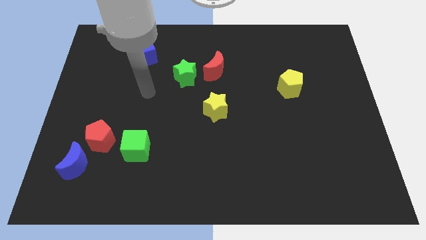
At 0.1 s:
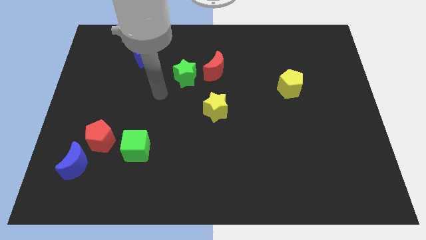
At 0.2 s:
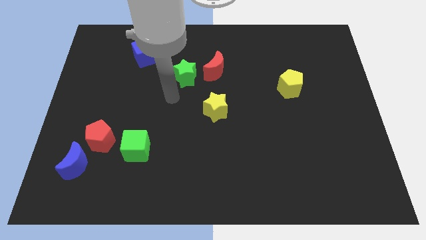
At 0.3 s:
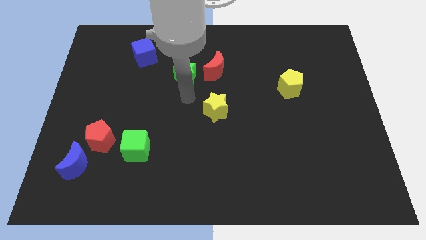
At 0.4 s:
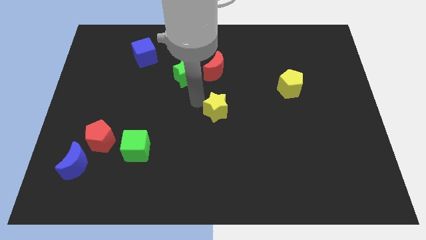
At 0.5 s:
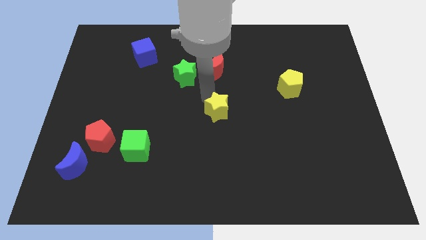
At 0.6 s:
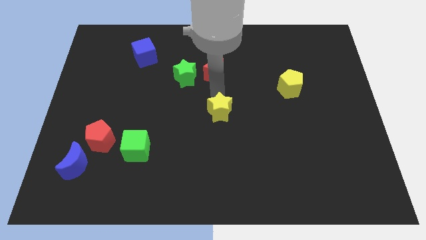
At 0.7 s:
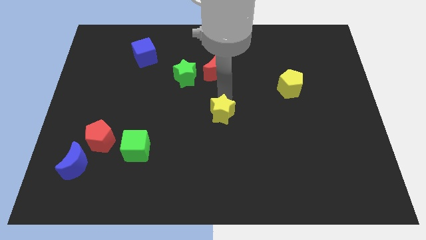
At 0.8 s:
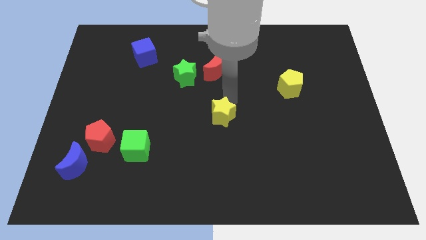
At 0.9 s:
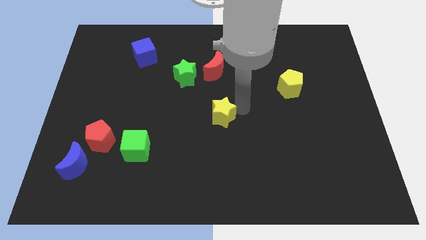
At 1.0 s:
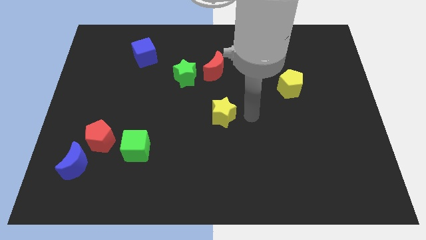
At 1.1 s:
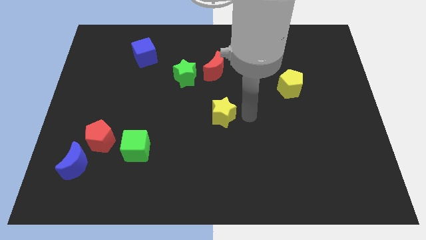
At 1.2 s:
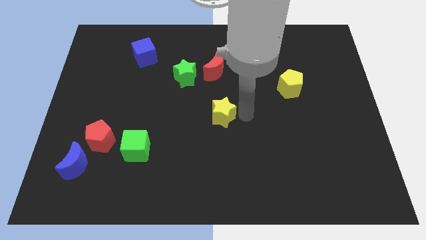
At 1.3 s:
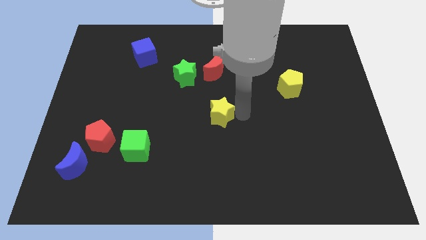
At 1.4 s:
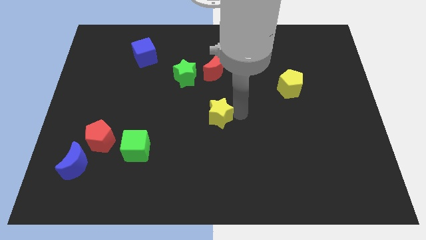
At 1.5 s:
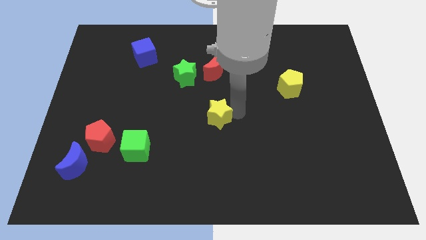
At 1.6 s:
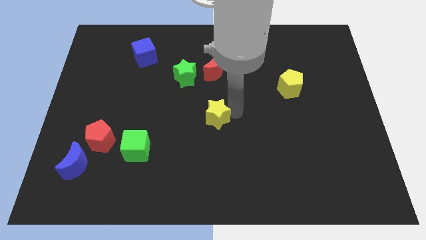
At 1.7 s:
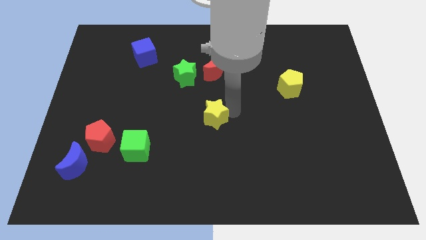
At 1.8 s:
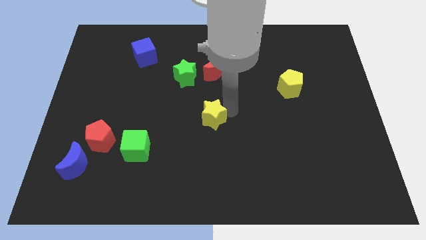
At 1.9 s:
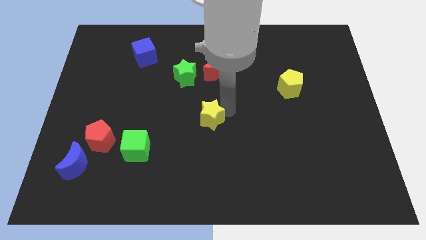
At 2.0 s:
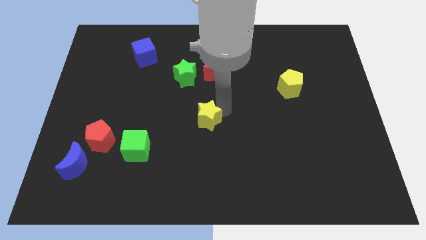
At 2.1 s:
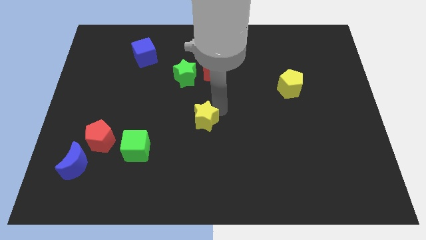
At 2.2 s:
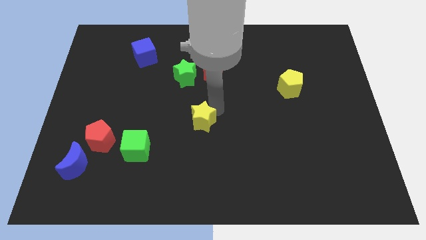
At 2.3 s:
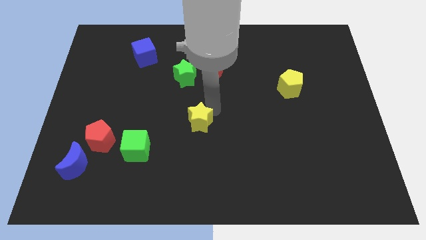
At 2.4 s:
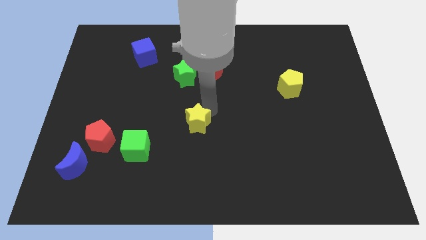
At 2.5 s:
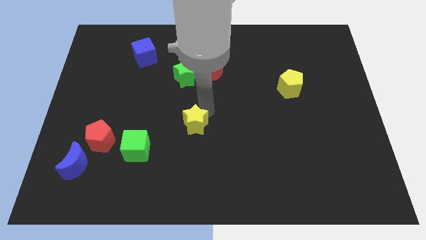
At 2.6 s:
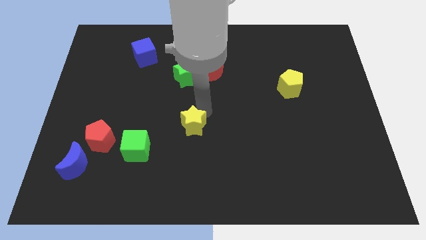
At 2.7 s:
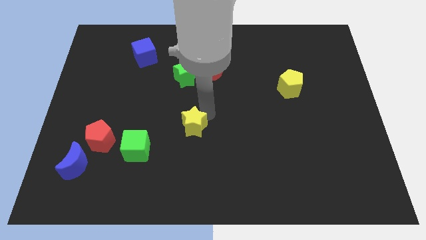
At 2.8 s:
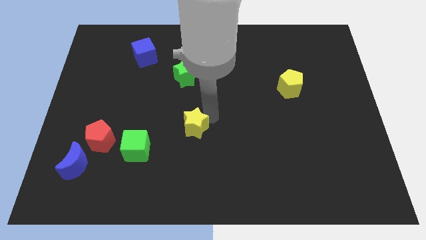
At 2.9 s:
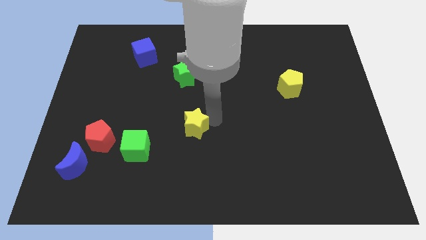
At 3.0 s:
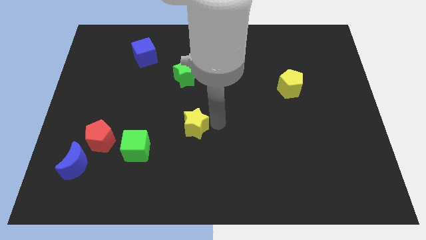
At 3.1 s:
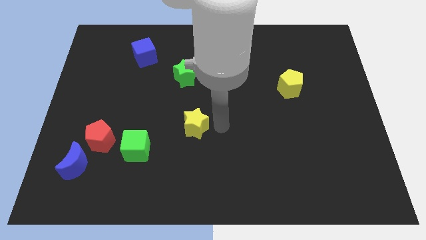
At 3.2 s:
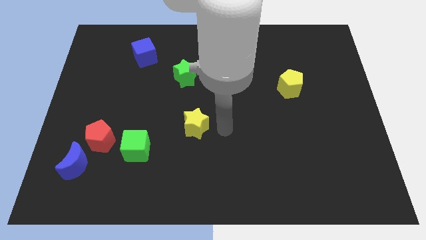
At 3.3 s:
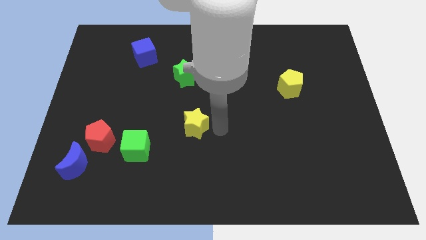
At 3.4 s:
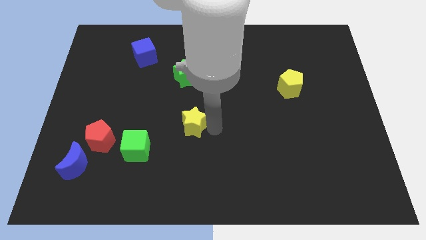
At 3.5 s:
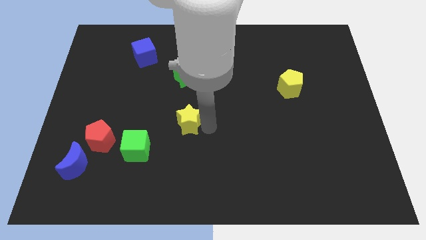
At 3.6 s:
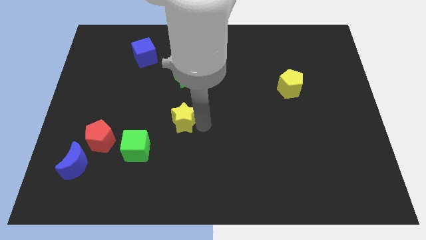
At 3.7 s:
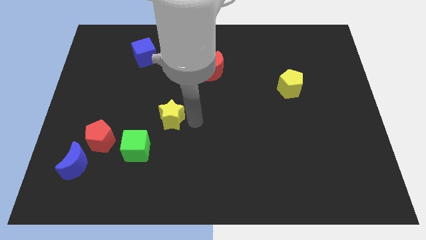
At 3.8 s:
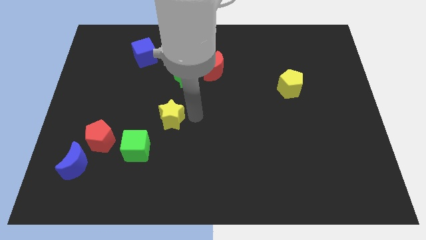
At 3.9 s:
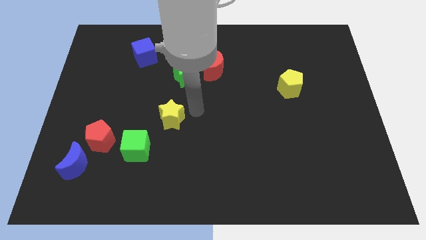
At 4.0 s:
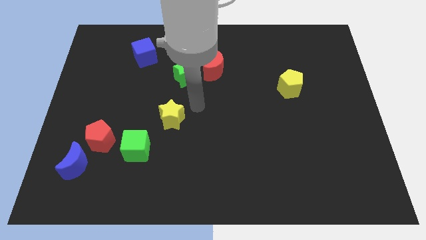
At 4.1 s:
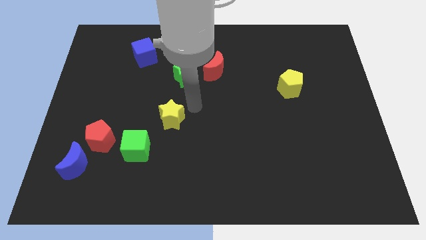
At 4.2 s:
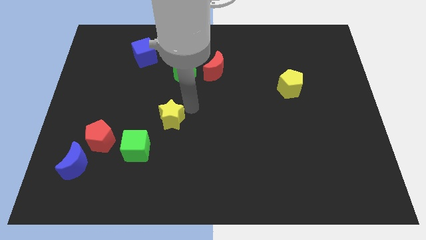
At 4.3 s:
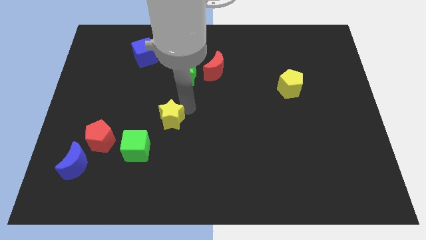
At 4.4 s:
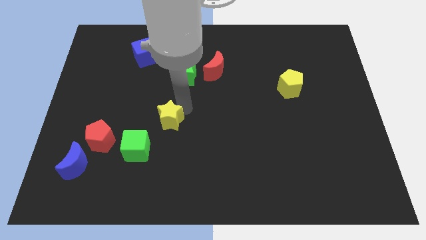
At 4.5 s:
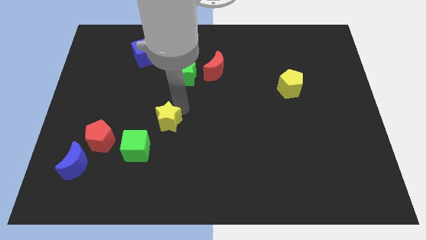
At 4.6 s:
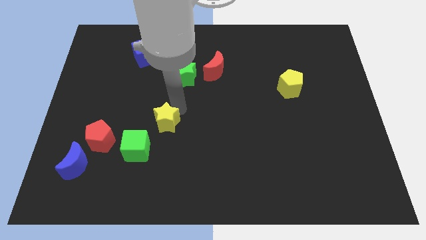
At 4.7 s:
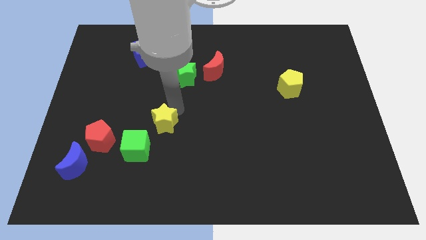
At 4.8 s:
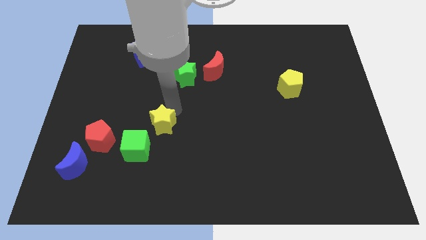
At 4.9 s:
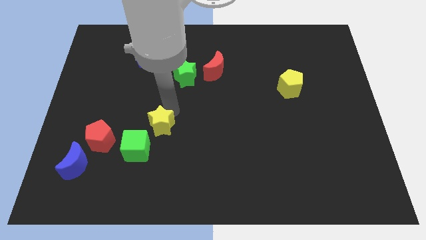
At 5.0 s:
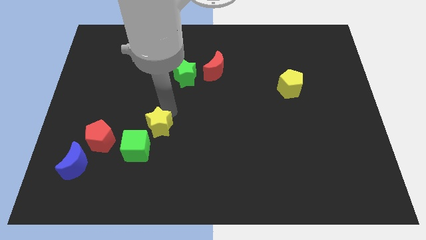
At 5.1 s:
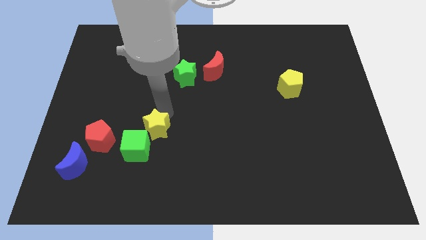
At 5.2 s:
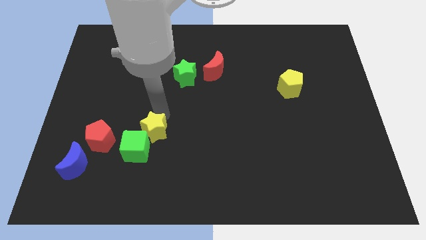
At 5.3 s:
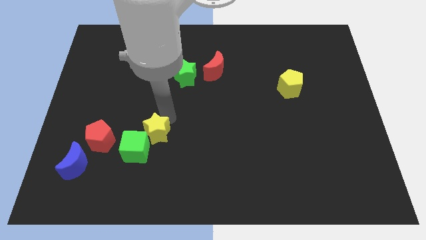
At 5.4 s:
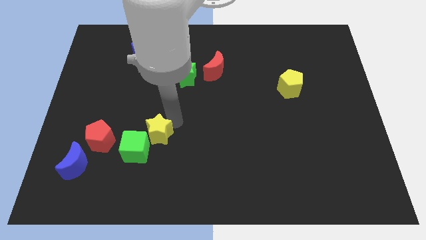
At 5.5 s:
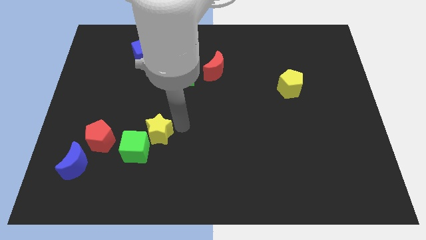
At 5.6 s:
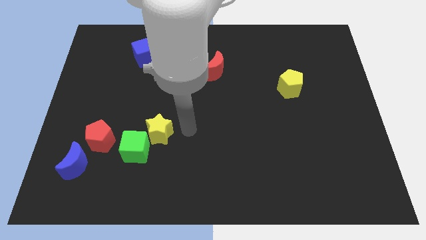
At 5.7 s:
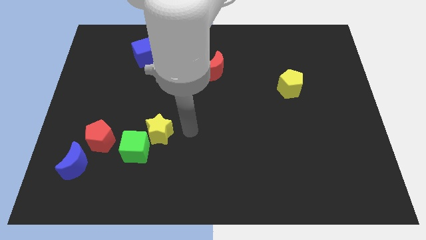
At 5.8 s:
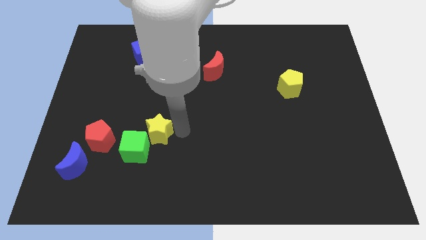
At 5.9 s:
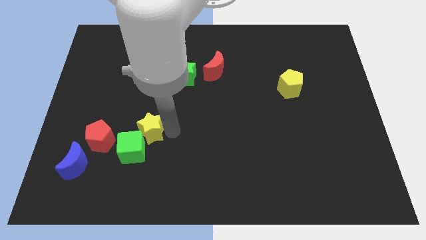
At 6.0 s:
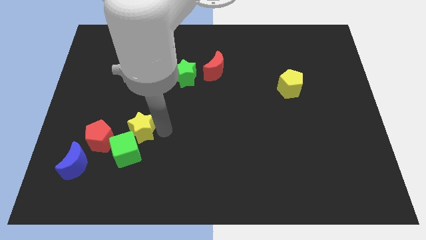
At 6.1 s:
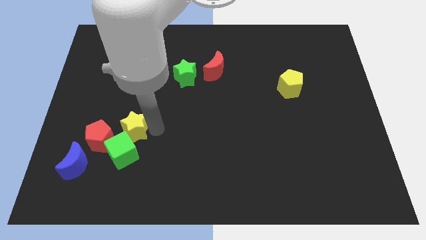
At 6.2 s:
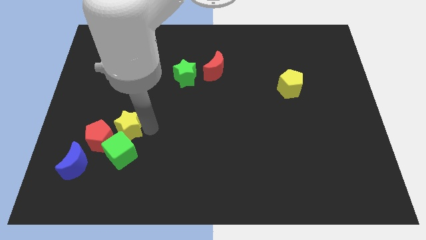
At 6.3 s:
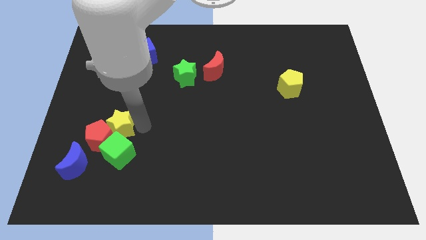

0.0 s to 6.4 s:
move the yellow star to the top right side of the blue moon

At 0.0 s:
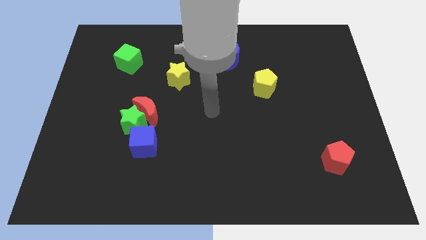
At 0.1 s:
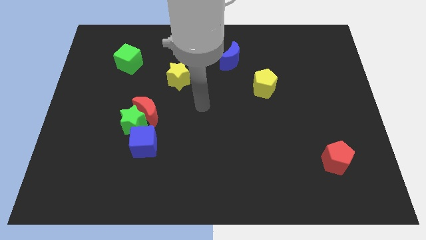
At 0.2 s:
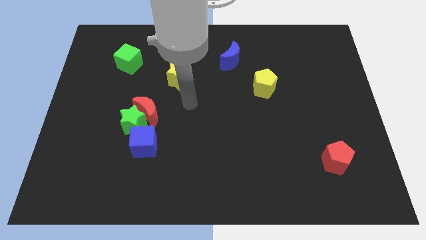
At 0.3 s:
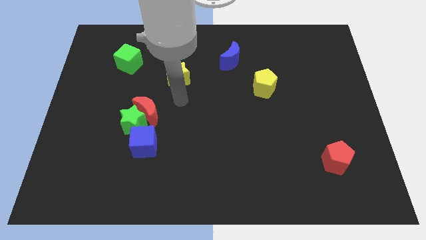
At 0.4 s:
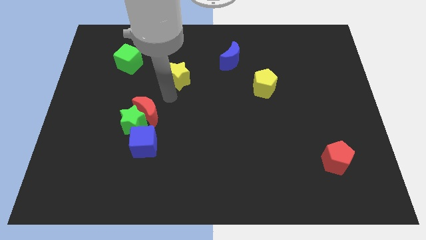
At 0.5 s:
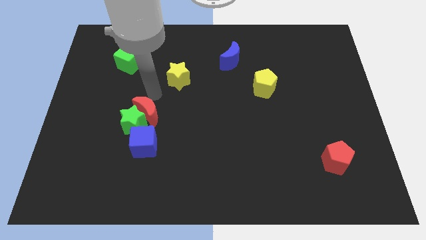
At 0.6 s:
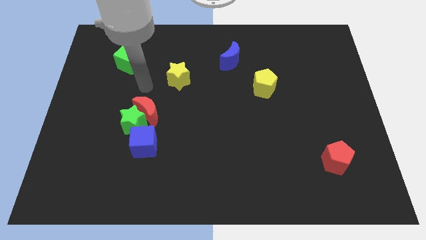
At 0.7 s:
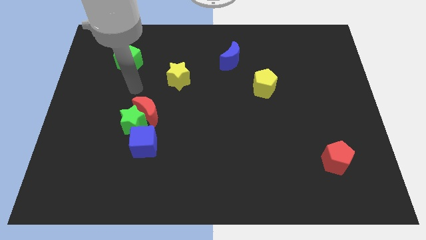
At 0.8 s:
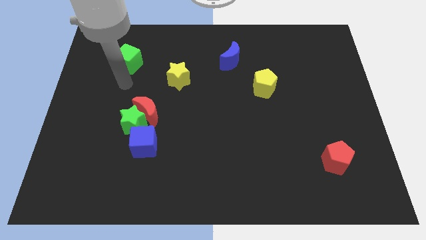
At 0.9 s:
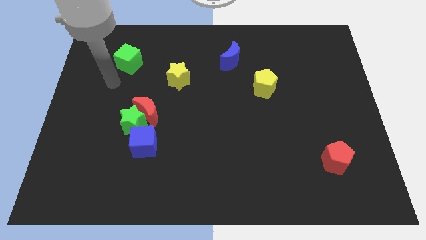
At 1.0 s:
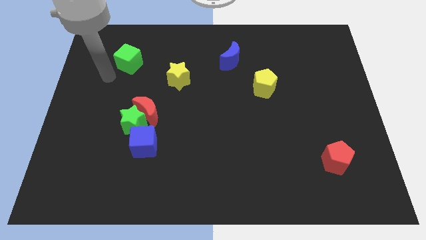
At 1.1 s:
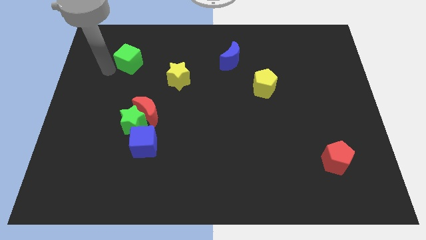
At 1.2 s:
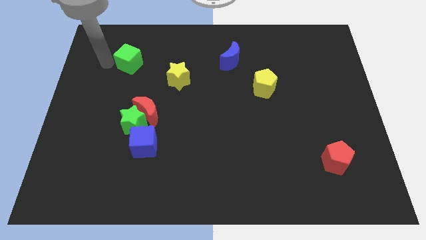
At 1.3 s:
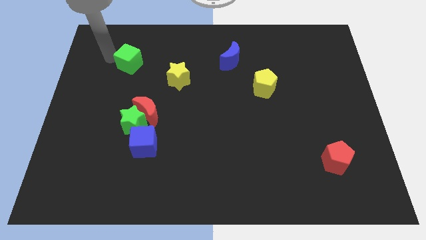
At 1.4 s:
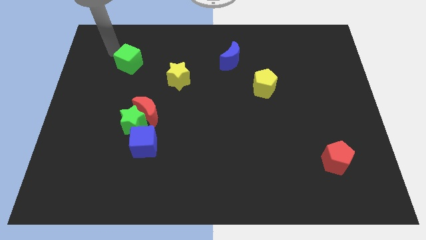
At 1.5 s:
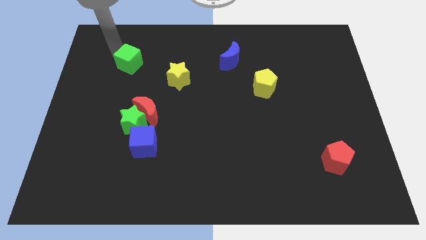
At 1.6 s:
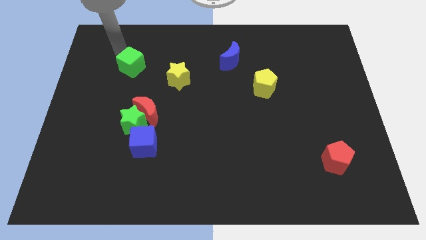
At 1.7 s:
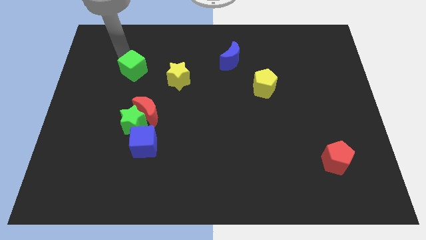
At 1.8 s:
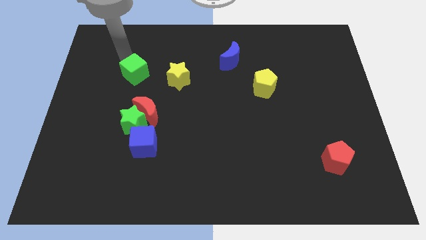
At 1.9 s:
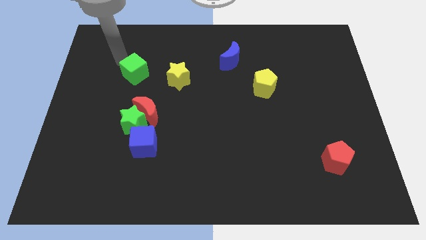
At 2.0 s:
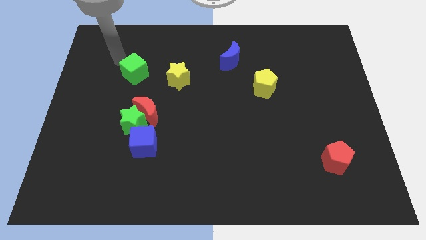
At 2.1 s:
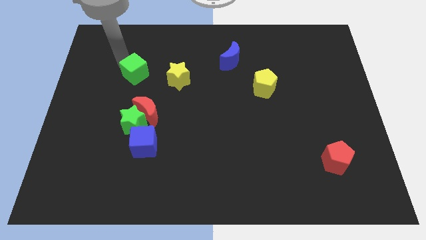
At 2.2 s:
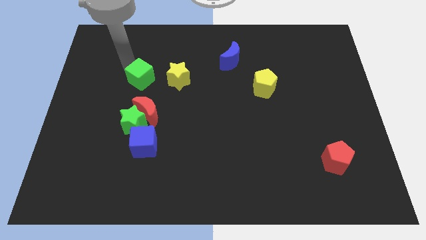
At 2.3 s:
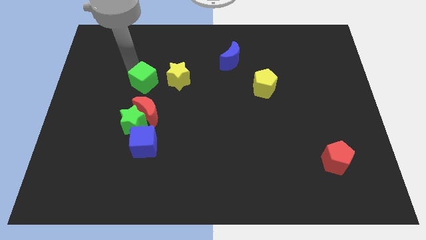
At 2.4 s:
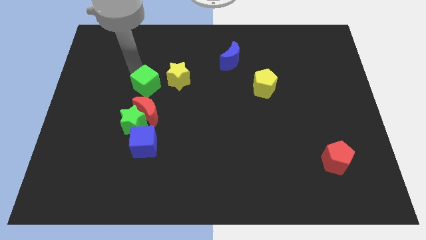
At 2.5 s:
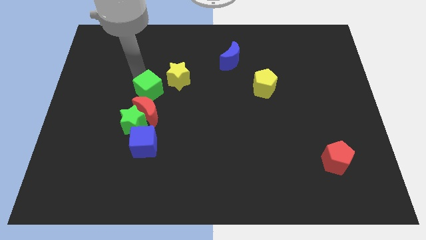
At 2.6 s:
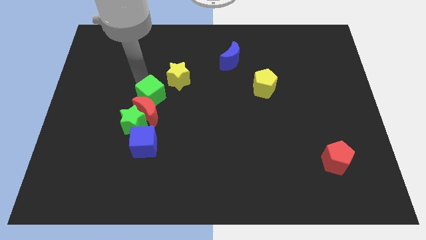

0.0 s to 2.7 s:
put the green cube to the top right side of the red moon
